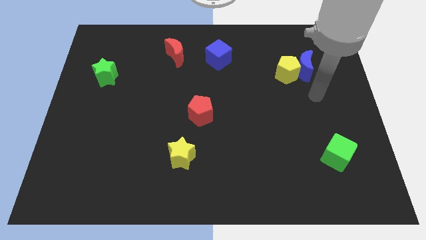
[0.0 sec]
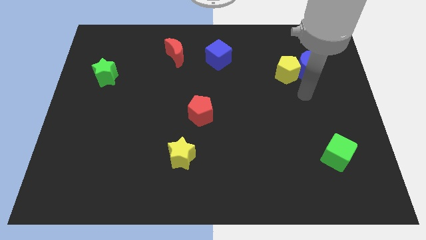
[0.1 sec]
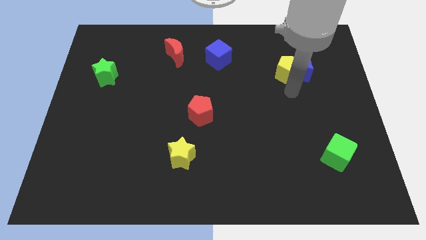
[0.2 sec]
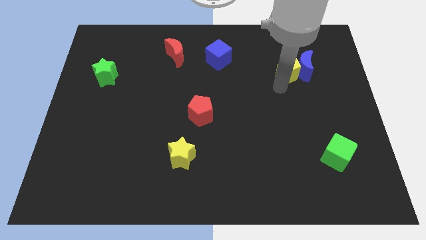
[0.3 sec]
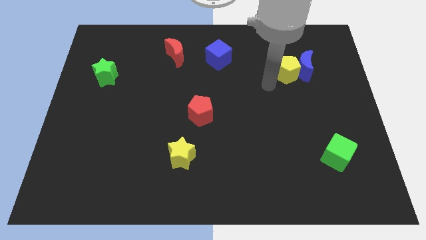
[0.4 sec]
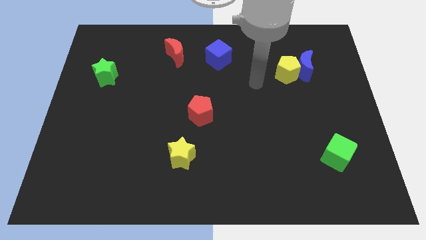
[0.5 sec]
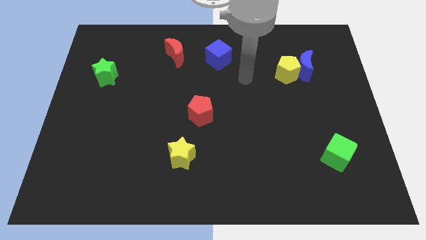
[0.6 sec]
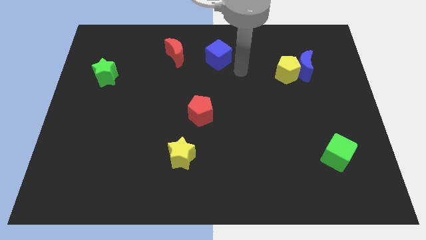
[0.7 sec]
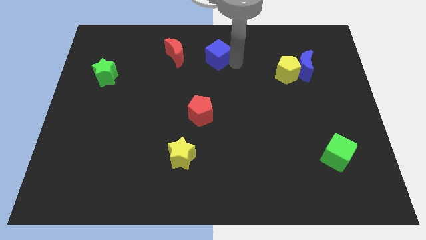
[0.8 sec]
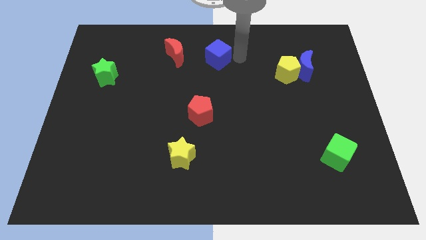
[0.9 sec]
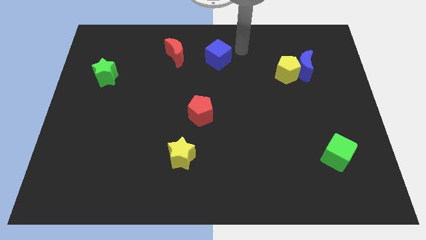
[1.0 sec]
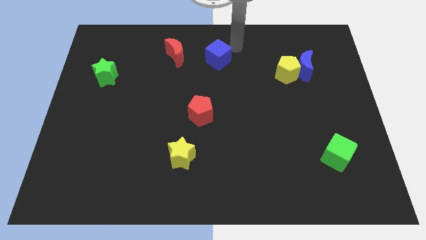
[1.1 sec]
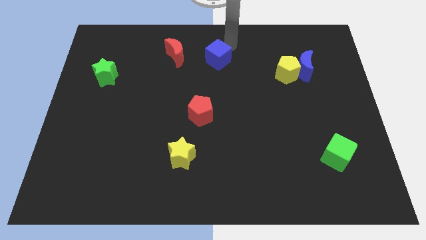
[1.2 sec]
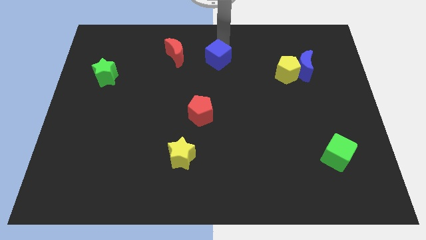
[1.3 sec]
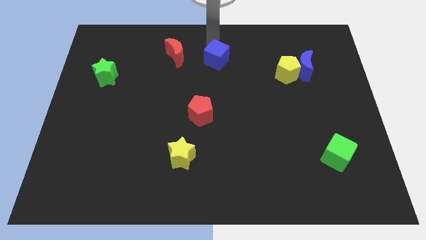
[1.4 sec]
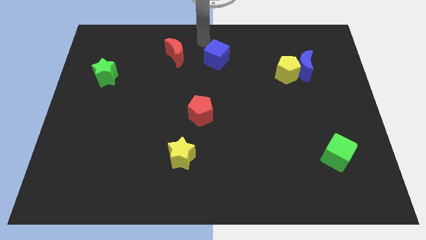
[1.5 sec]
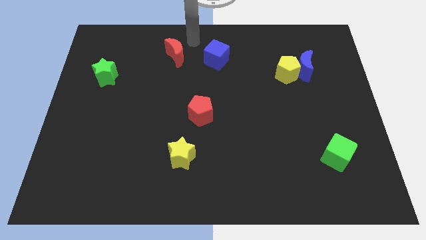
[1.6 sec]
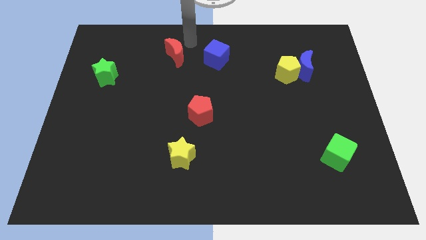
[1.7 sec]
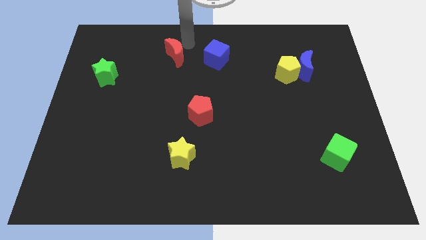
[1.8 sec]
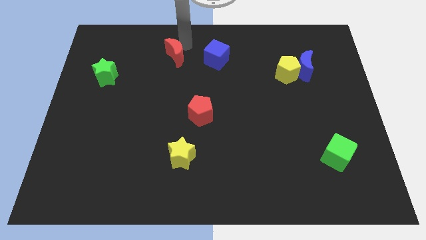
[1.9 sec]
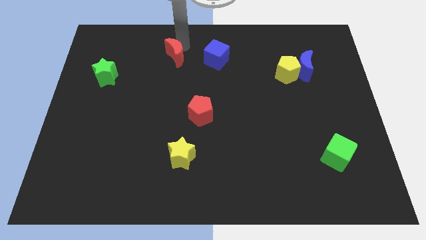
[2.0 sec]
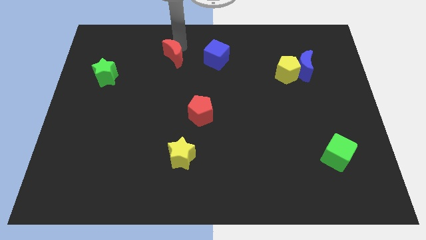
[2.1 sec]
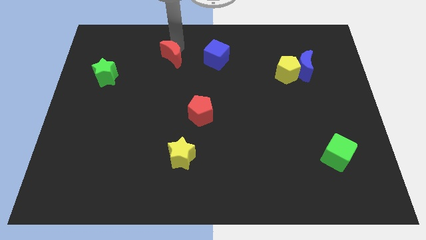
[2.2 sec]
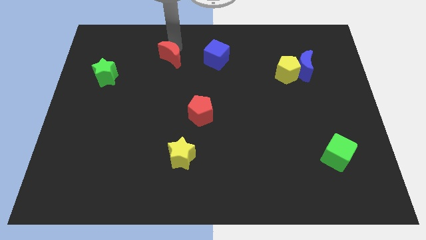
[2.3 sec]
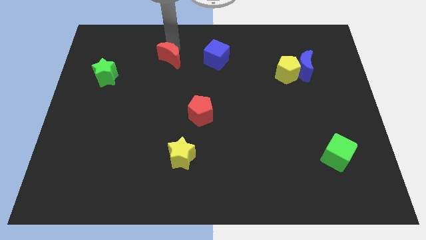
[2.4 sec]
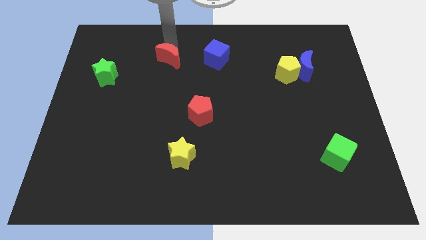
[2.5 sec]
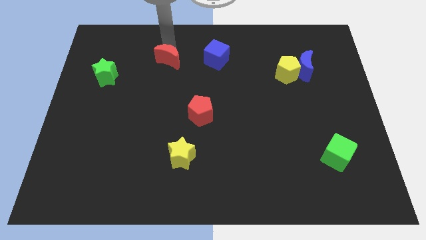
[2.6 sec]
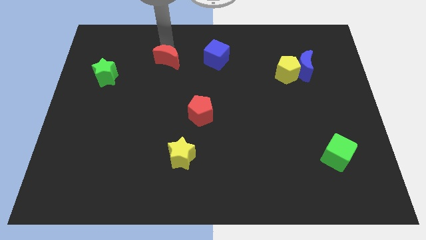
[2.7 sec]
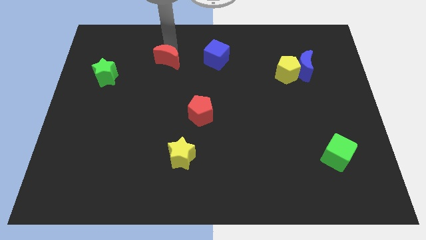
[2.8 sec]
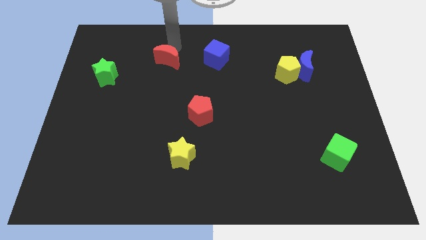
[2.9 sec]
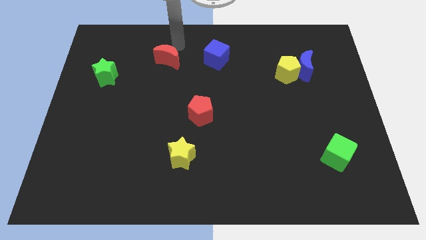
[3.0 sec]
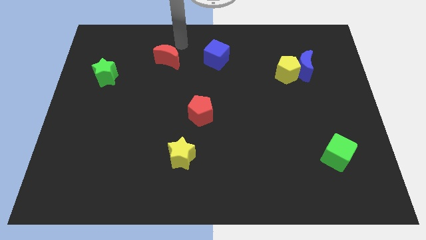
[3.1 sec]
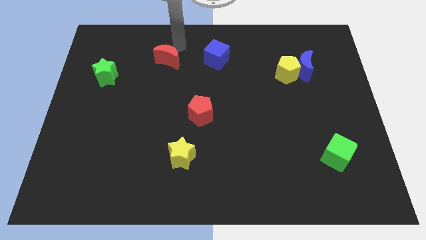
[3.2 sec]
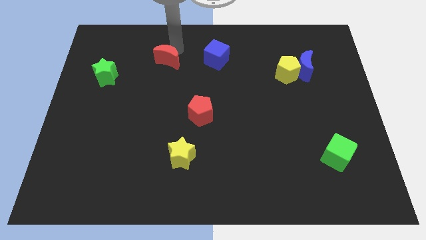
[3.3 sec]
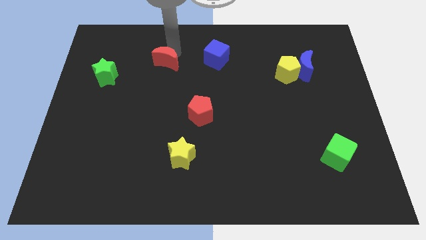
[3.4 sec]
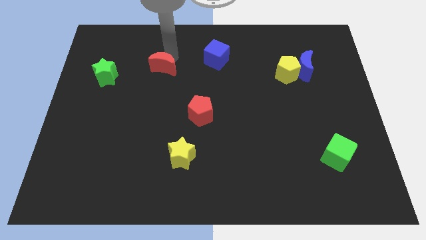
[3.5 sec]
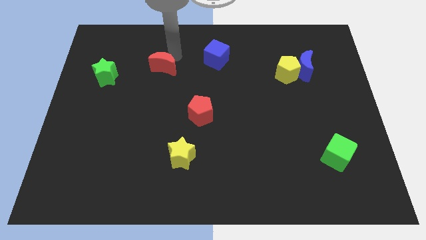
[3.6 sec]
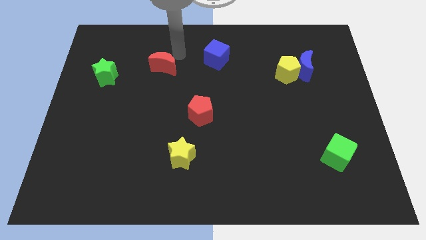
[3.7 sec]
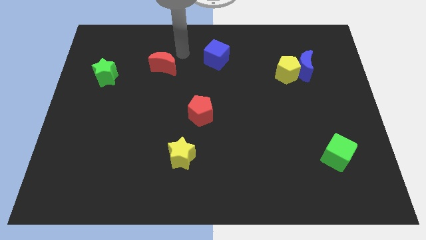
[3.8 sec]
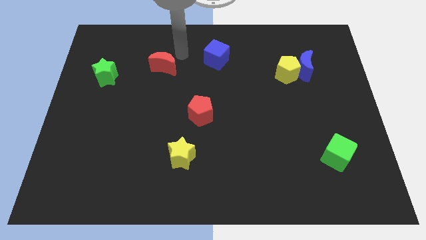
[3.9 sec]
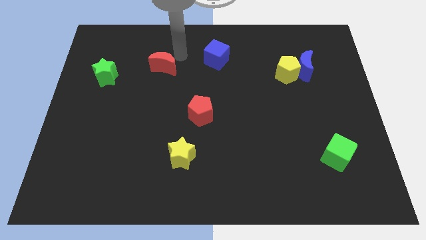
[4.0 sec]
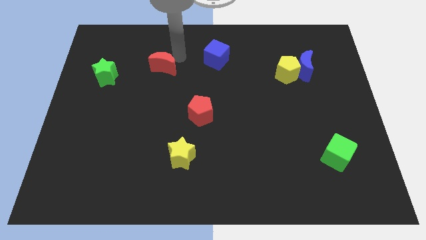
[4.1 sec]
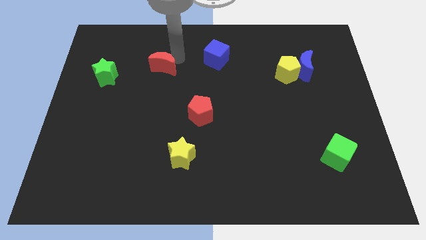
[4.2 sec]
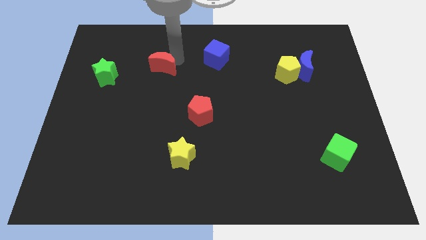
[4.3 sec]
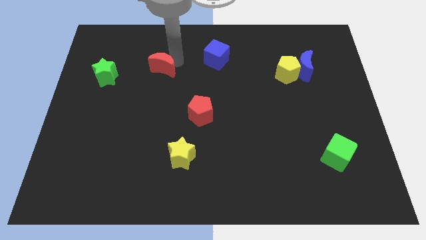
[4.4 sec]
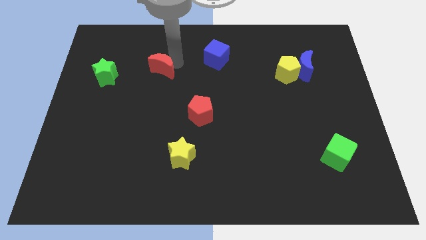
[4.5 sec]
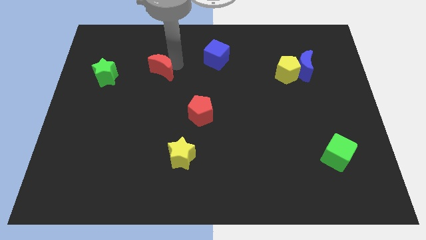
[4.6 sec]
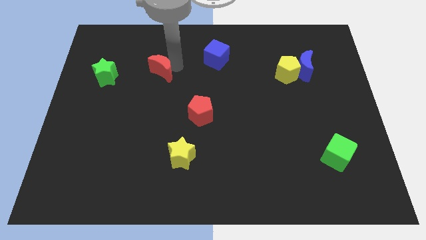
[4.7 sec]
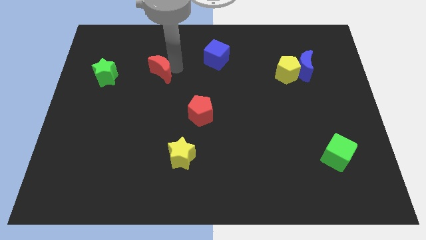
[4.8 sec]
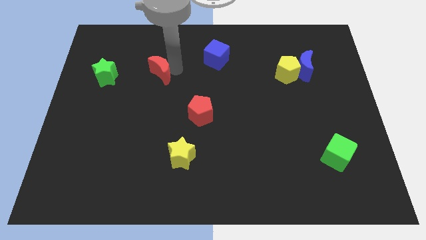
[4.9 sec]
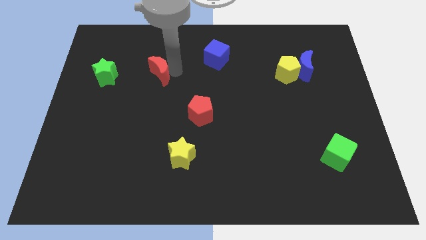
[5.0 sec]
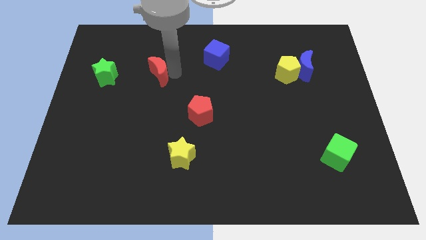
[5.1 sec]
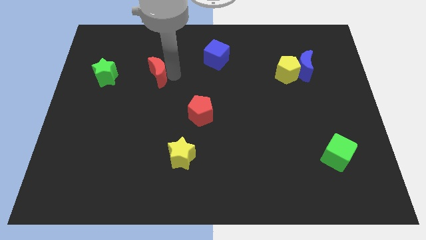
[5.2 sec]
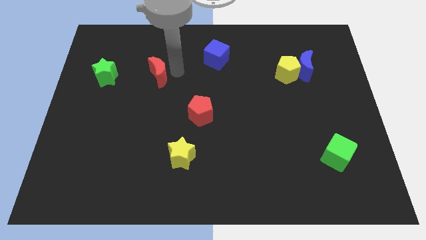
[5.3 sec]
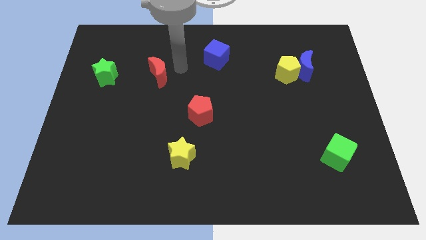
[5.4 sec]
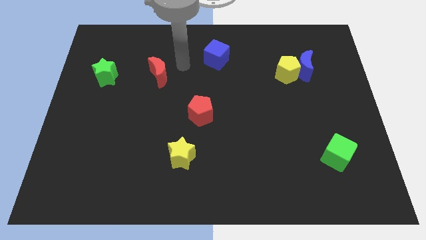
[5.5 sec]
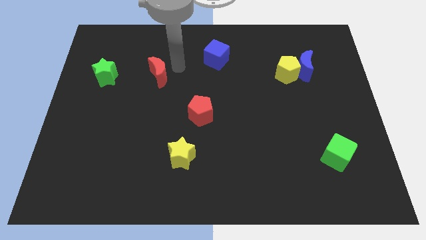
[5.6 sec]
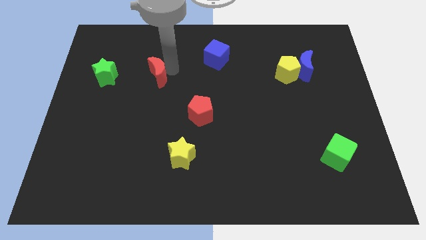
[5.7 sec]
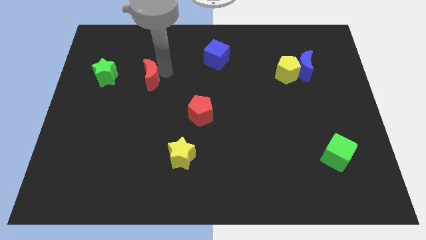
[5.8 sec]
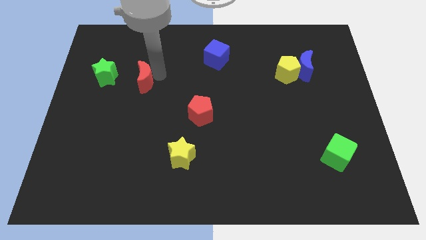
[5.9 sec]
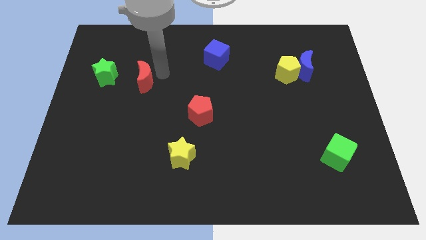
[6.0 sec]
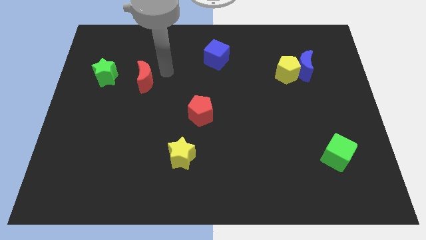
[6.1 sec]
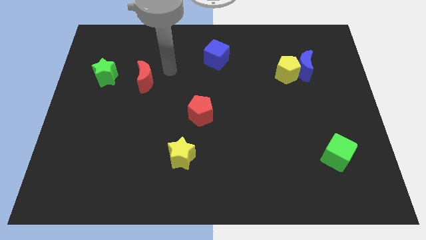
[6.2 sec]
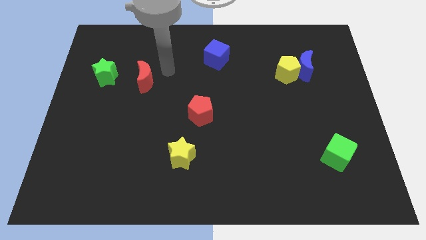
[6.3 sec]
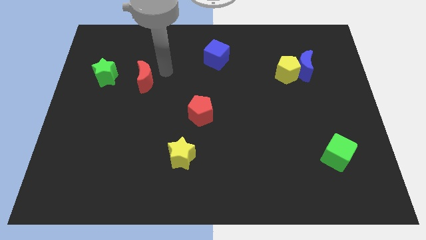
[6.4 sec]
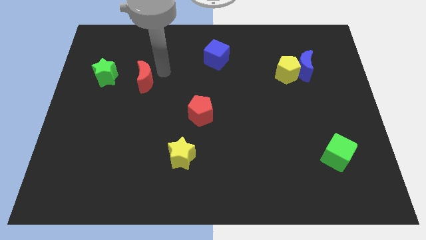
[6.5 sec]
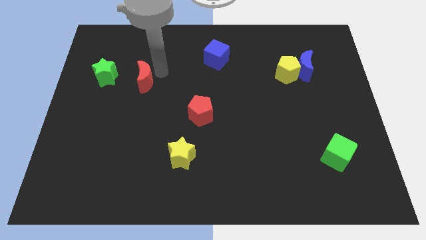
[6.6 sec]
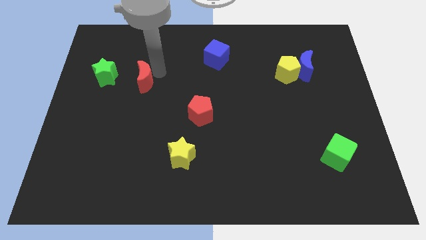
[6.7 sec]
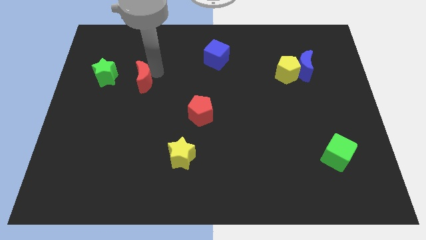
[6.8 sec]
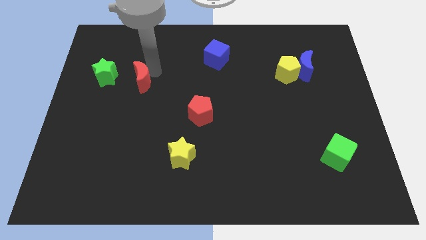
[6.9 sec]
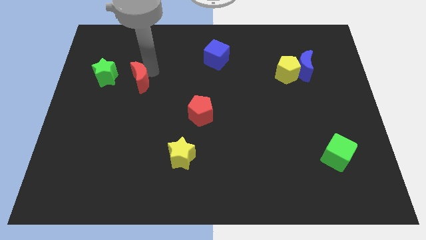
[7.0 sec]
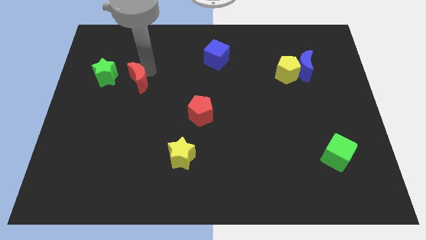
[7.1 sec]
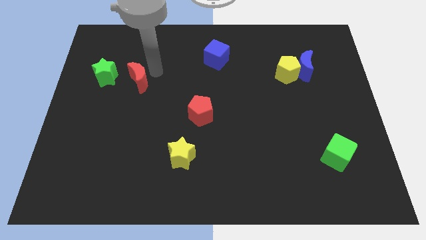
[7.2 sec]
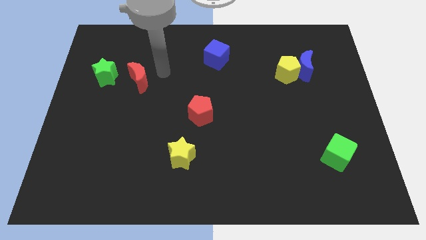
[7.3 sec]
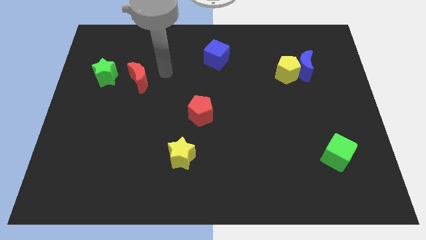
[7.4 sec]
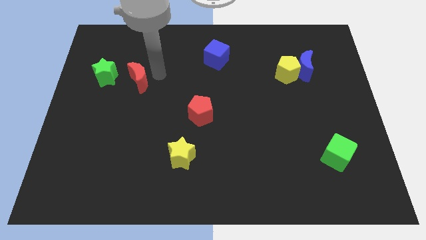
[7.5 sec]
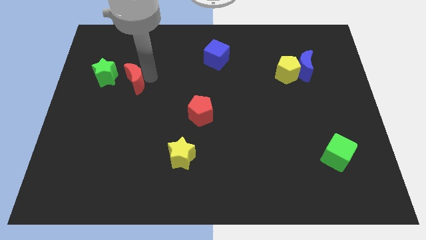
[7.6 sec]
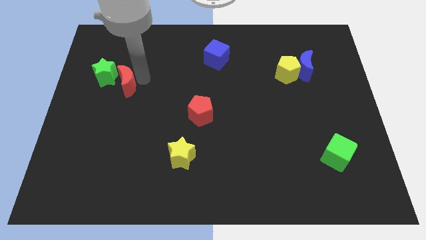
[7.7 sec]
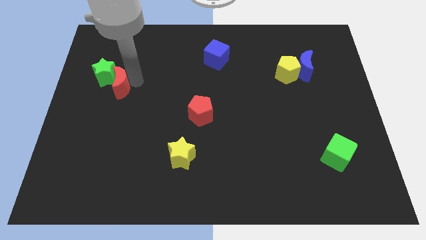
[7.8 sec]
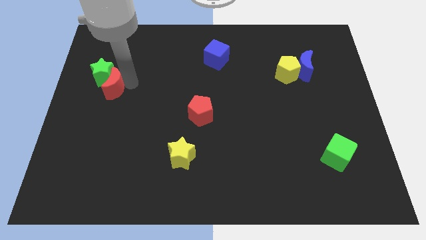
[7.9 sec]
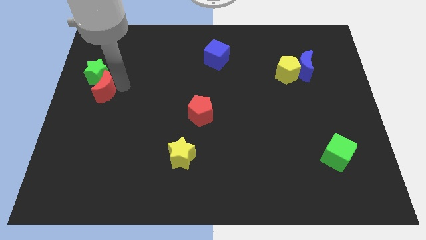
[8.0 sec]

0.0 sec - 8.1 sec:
put the red moon to the left side
